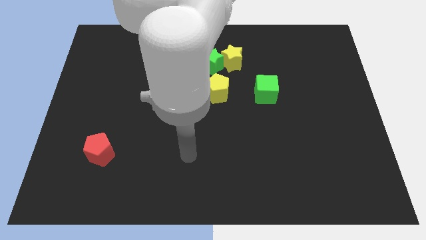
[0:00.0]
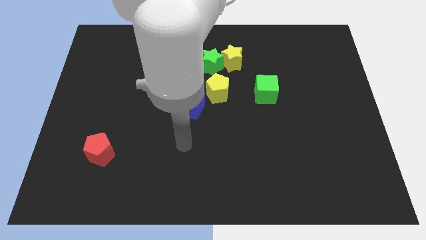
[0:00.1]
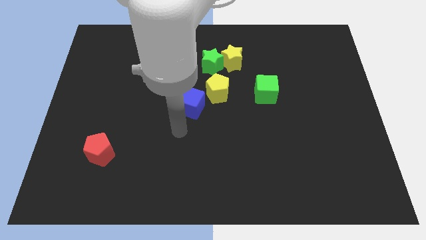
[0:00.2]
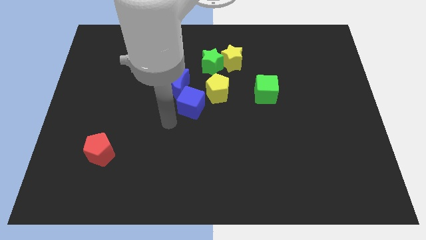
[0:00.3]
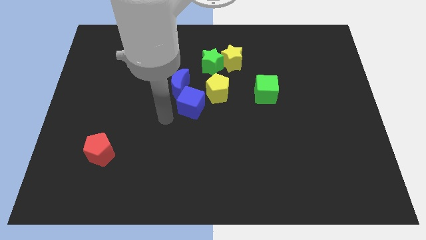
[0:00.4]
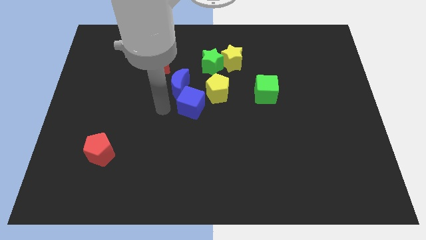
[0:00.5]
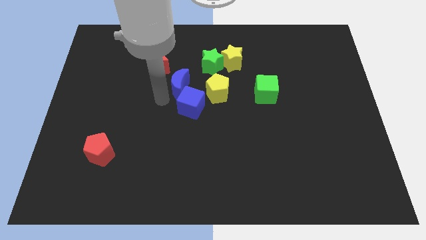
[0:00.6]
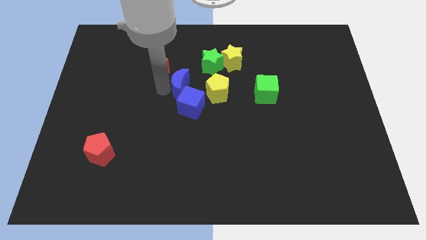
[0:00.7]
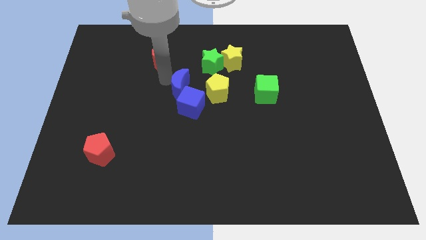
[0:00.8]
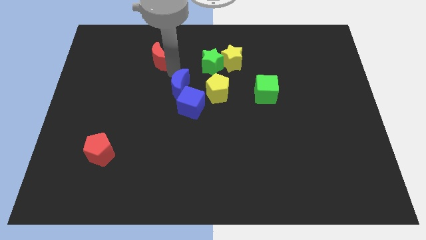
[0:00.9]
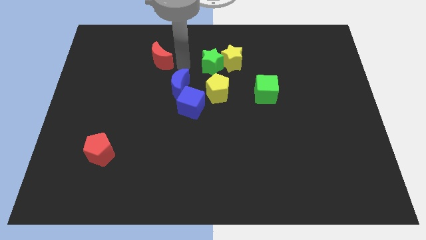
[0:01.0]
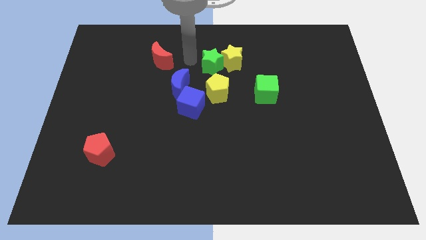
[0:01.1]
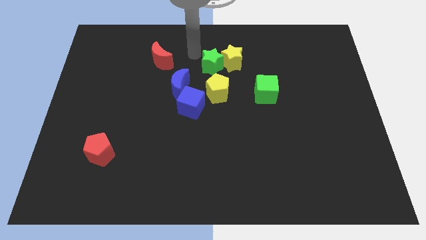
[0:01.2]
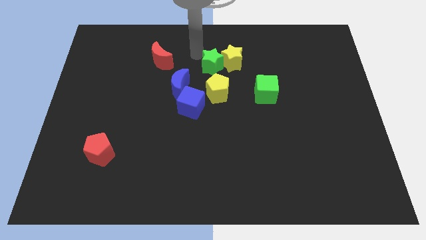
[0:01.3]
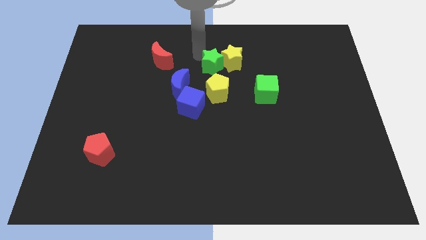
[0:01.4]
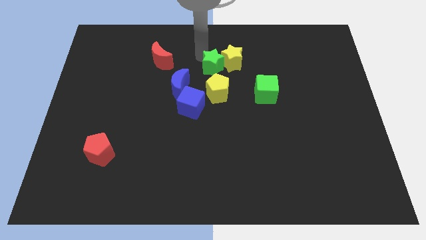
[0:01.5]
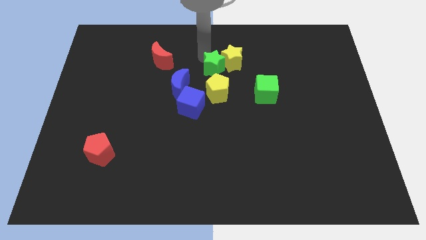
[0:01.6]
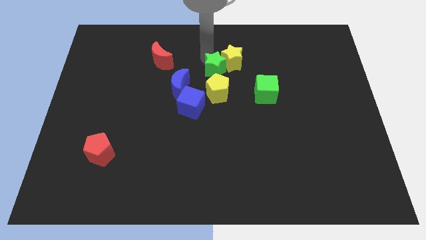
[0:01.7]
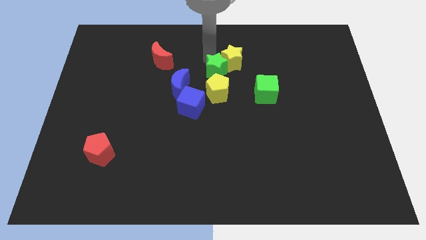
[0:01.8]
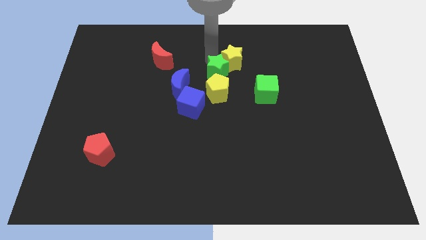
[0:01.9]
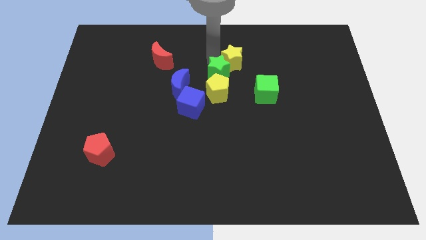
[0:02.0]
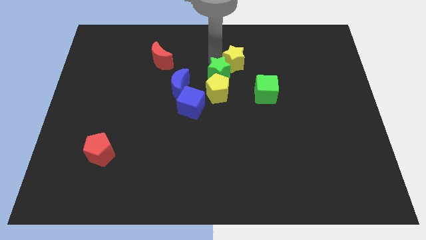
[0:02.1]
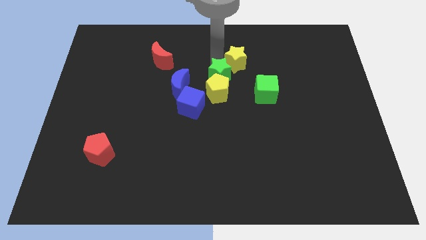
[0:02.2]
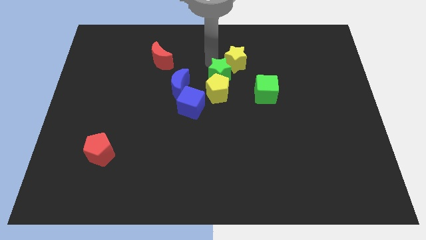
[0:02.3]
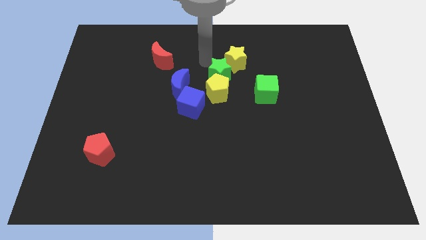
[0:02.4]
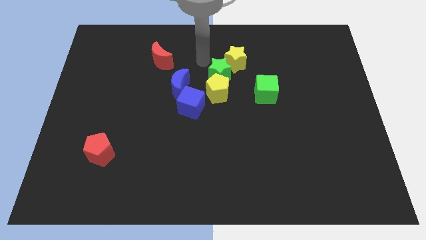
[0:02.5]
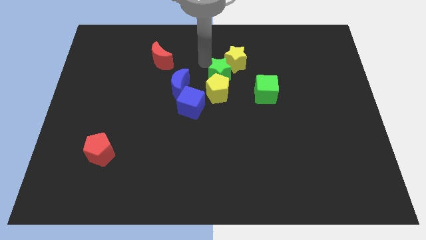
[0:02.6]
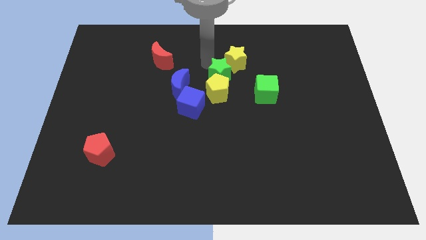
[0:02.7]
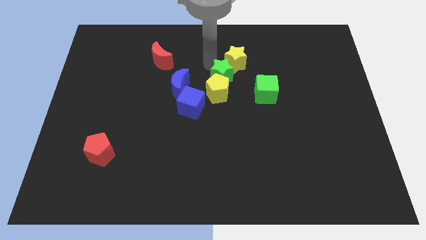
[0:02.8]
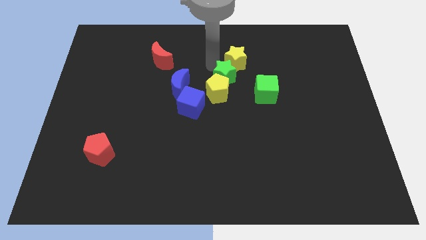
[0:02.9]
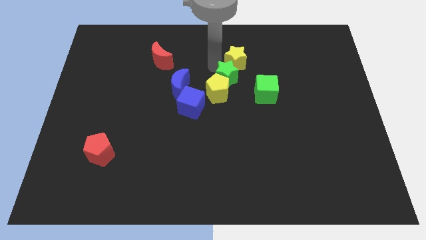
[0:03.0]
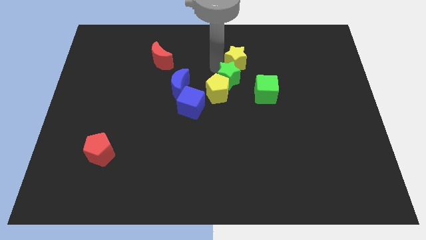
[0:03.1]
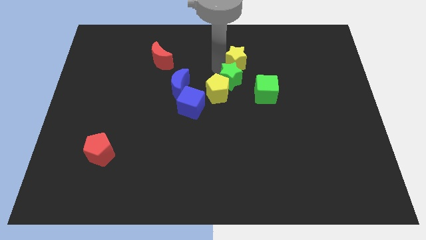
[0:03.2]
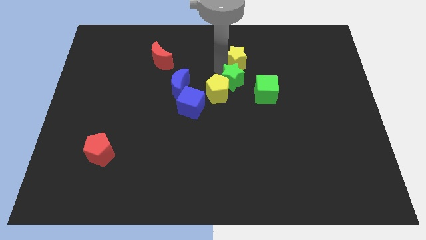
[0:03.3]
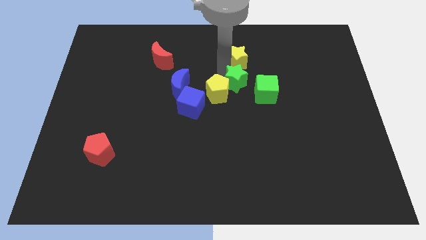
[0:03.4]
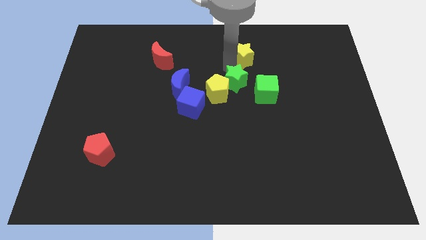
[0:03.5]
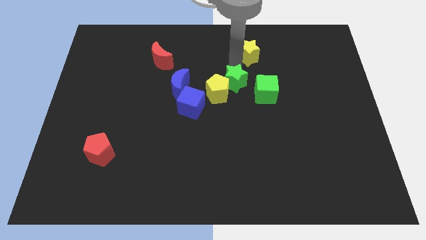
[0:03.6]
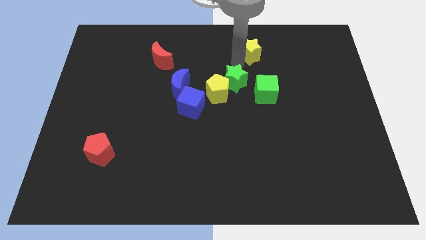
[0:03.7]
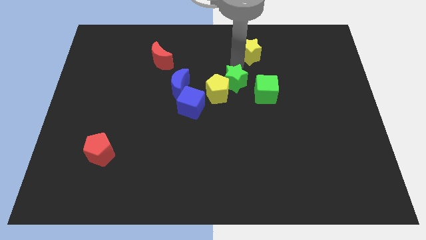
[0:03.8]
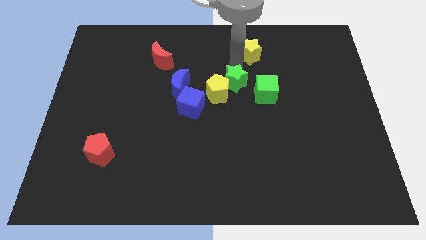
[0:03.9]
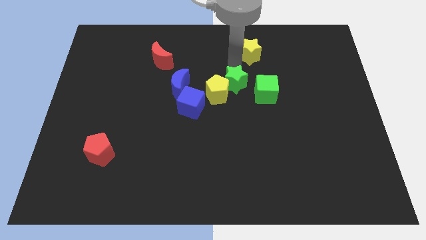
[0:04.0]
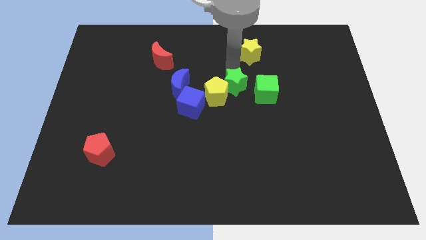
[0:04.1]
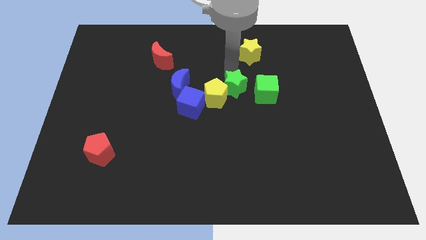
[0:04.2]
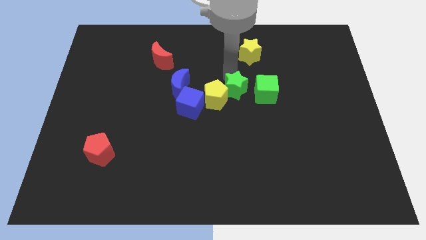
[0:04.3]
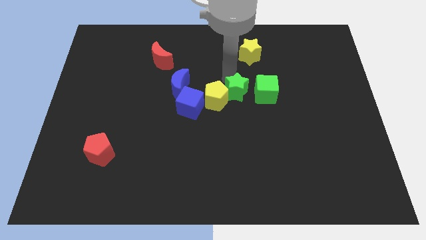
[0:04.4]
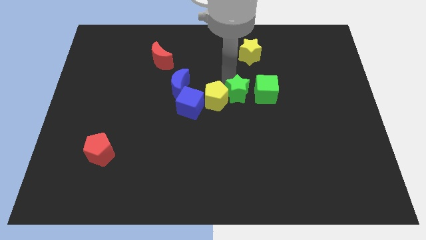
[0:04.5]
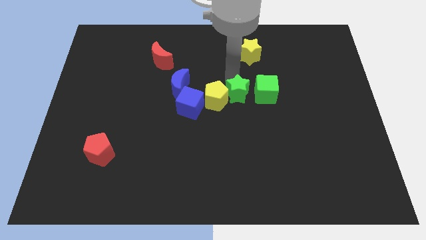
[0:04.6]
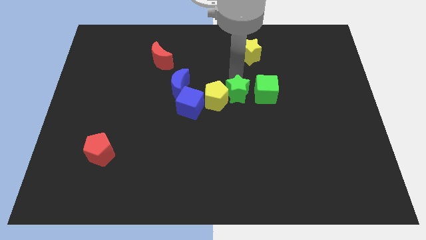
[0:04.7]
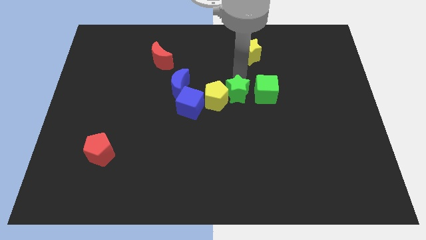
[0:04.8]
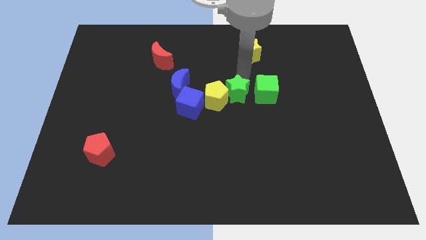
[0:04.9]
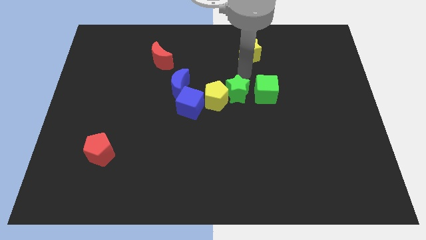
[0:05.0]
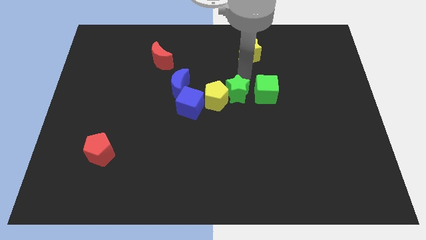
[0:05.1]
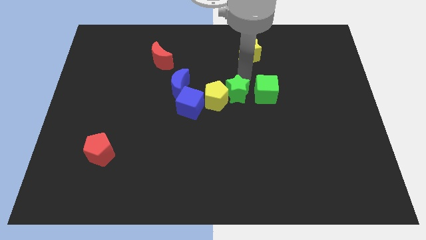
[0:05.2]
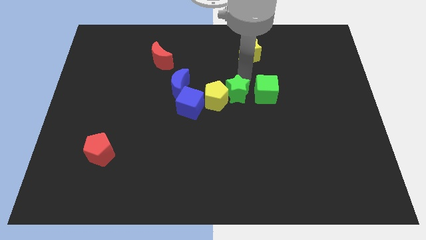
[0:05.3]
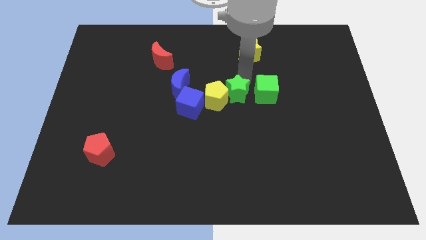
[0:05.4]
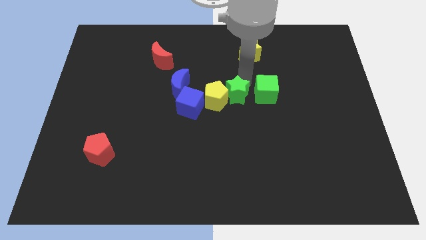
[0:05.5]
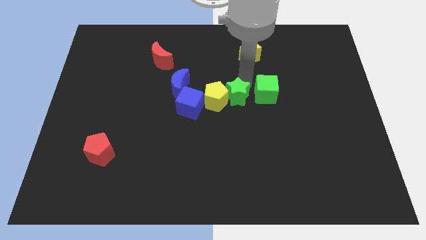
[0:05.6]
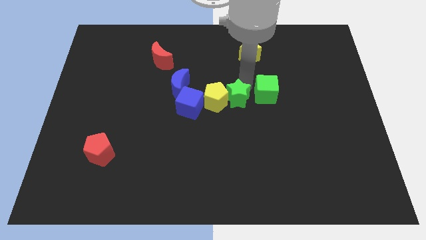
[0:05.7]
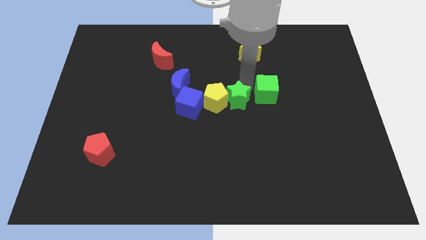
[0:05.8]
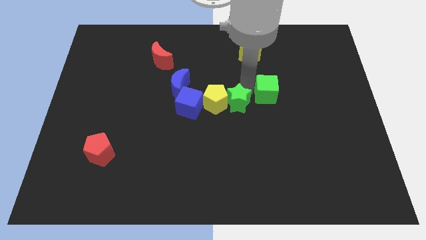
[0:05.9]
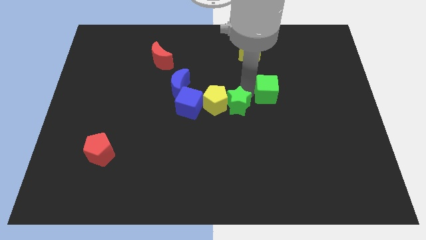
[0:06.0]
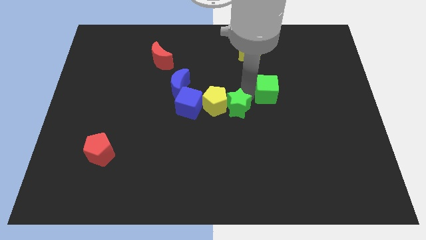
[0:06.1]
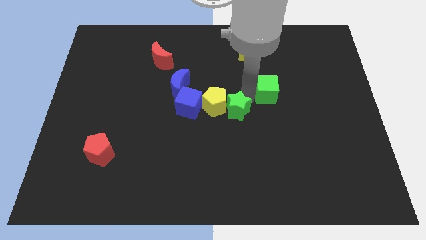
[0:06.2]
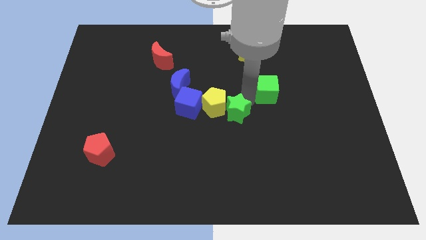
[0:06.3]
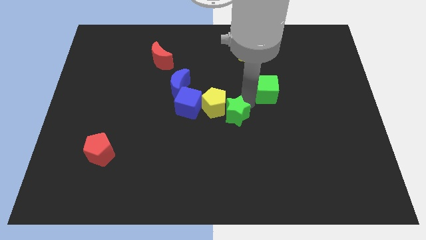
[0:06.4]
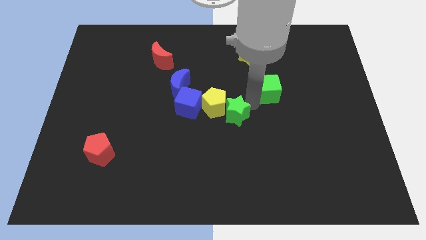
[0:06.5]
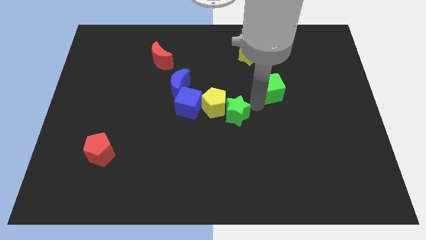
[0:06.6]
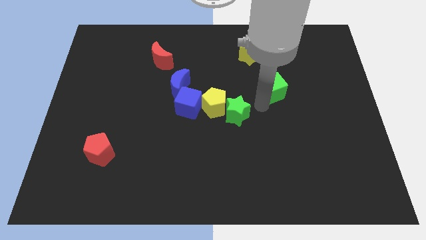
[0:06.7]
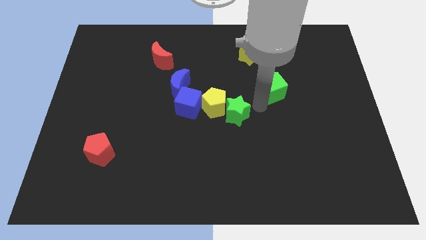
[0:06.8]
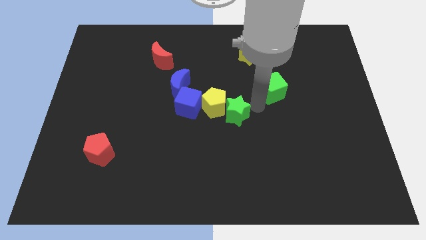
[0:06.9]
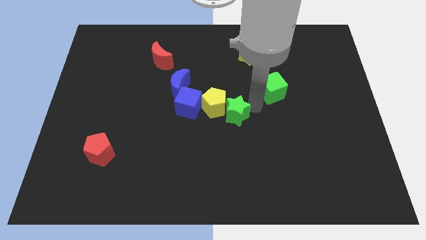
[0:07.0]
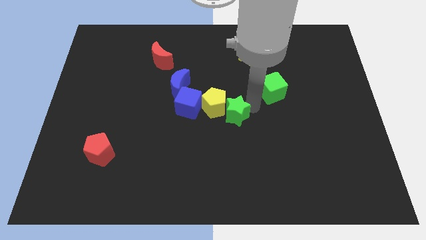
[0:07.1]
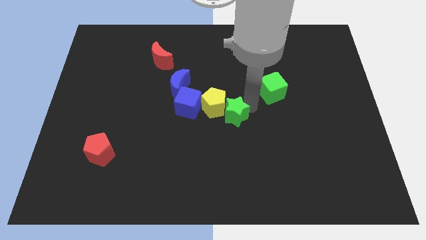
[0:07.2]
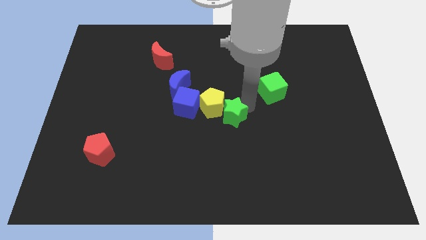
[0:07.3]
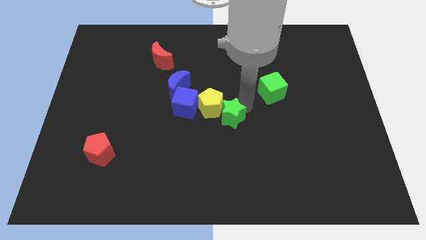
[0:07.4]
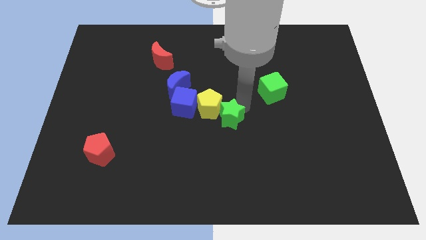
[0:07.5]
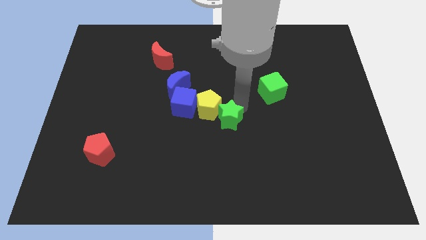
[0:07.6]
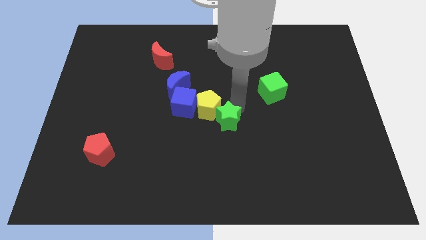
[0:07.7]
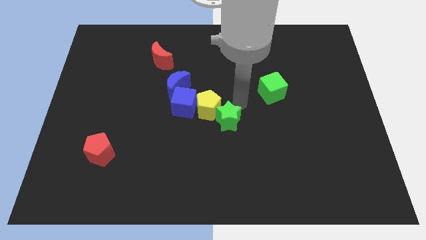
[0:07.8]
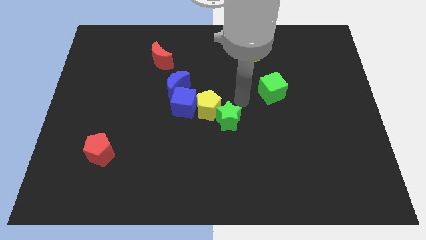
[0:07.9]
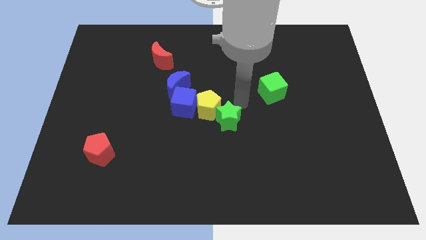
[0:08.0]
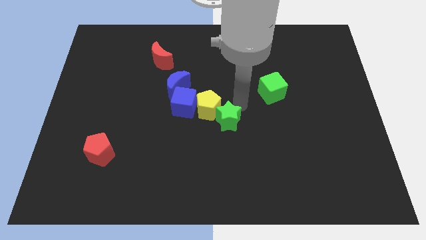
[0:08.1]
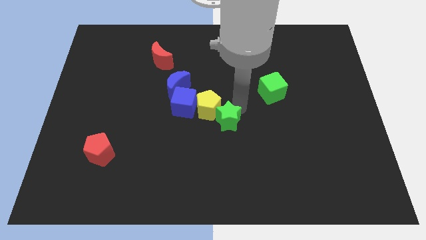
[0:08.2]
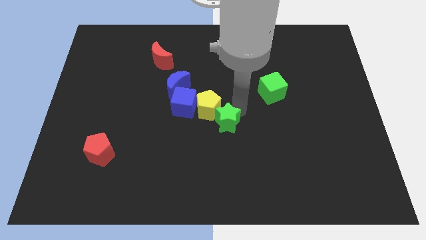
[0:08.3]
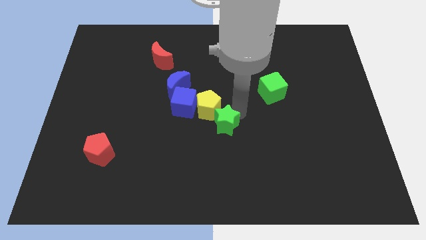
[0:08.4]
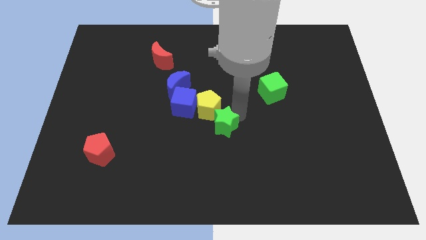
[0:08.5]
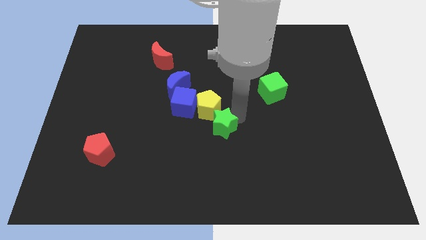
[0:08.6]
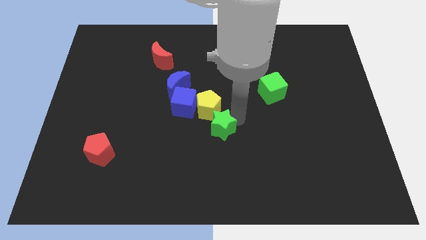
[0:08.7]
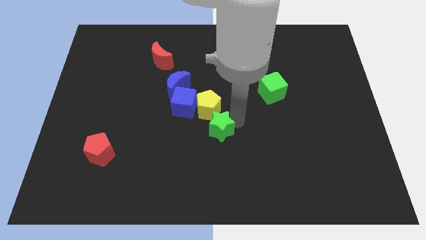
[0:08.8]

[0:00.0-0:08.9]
push the green star downwards
